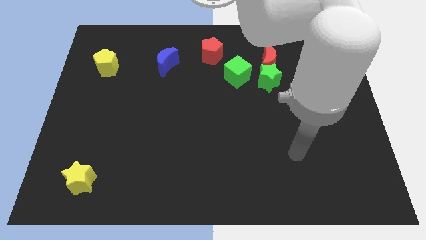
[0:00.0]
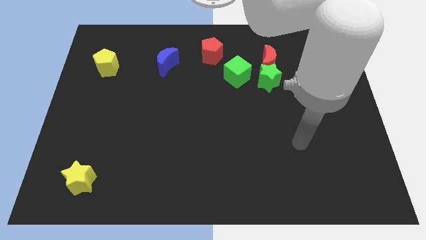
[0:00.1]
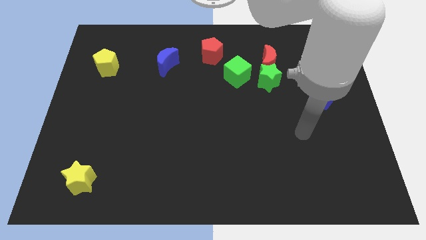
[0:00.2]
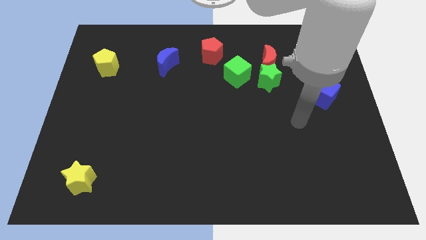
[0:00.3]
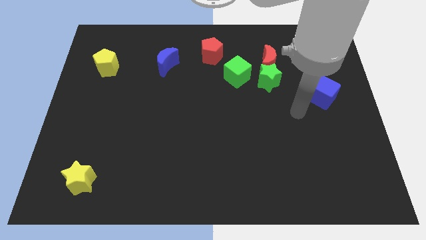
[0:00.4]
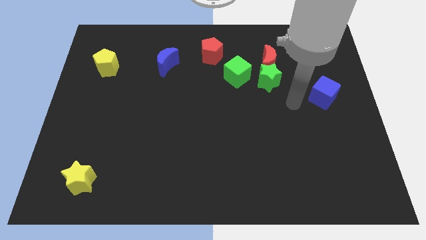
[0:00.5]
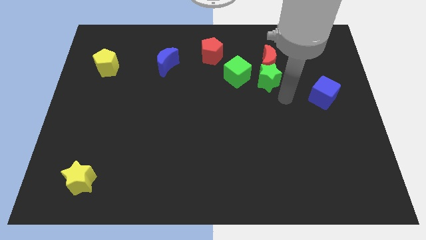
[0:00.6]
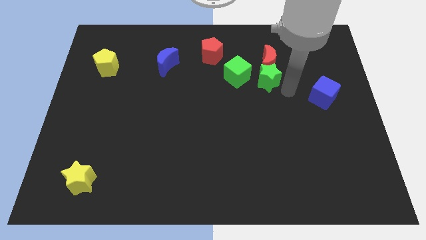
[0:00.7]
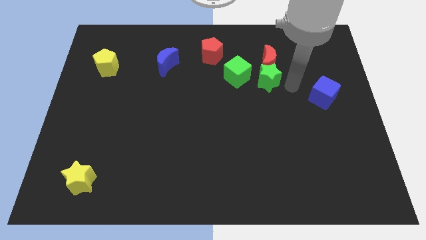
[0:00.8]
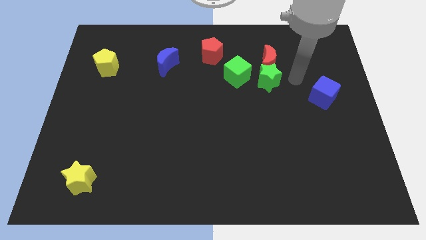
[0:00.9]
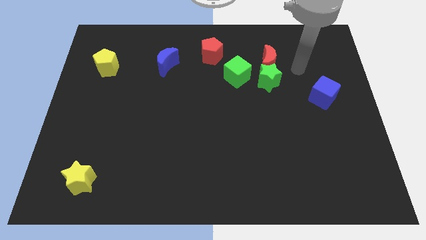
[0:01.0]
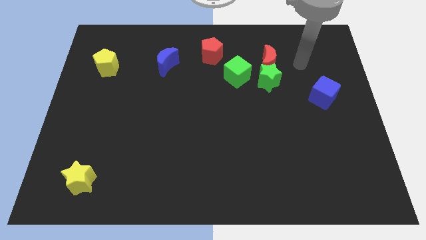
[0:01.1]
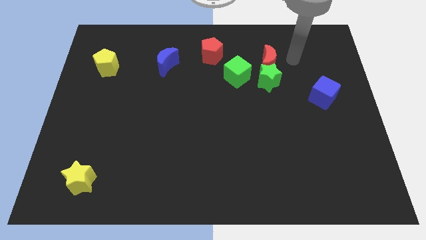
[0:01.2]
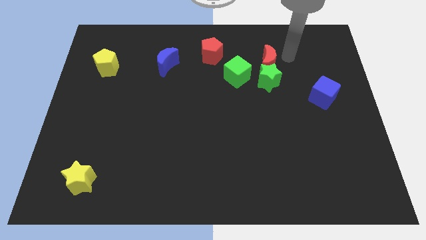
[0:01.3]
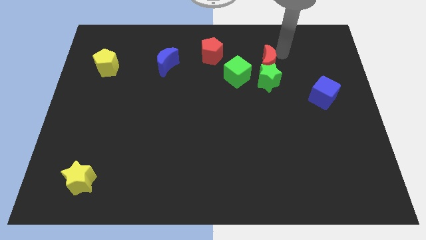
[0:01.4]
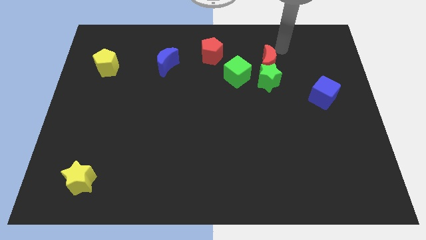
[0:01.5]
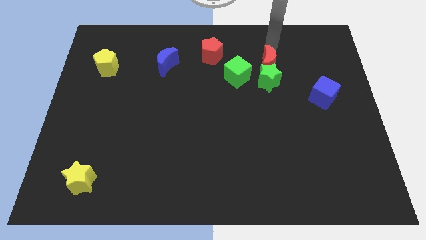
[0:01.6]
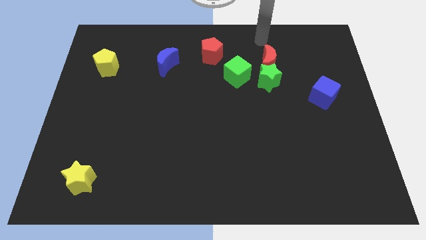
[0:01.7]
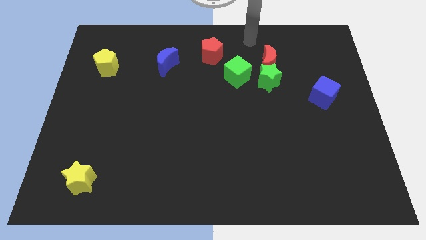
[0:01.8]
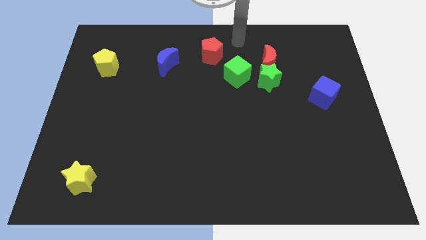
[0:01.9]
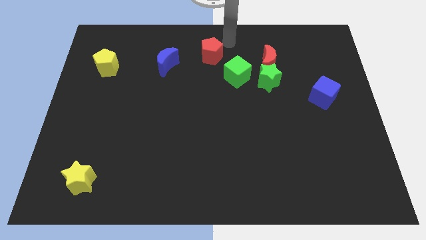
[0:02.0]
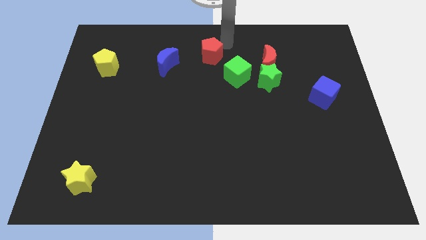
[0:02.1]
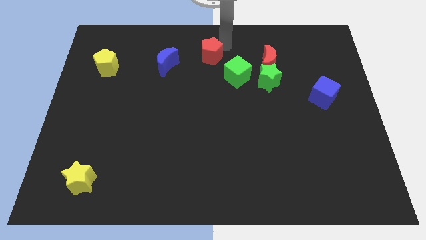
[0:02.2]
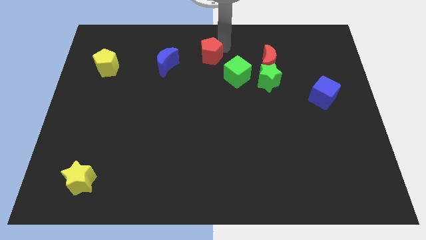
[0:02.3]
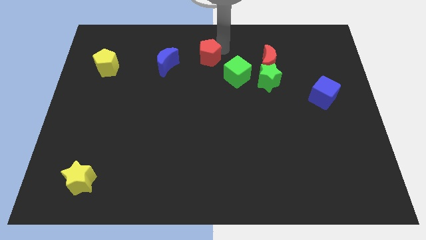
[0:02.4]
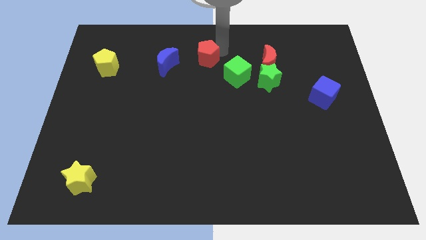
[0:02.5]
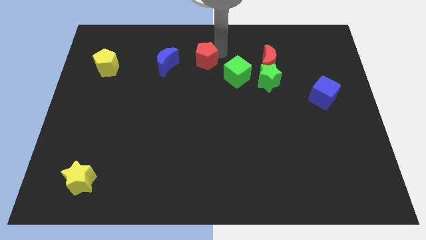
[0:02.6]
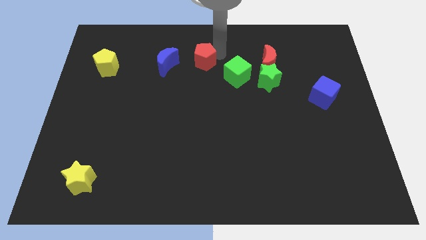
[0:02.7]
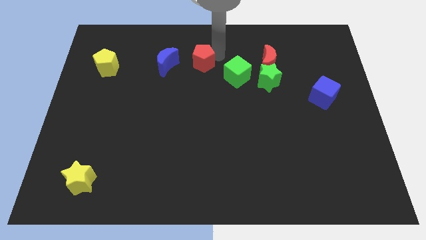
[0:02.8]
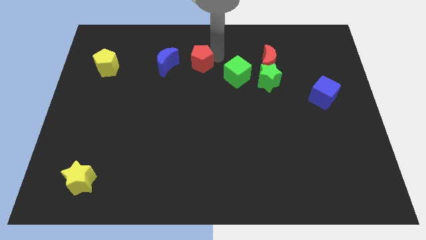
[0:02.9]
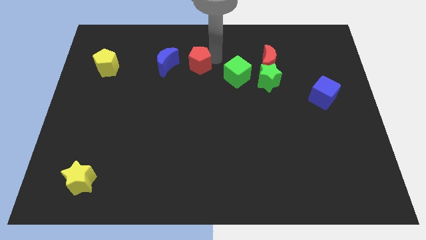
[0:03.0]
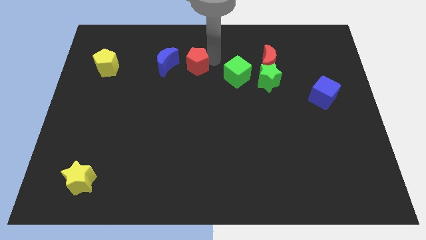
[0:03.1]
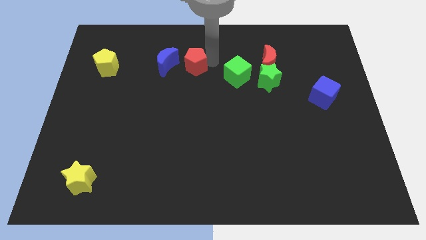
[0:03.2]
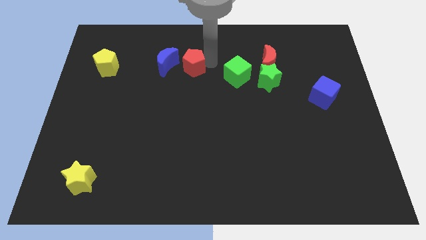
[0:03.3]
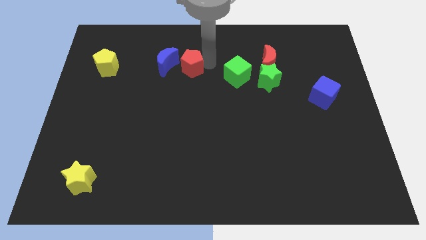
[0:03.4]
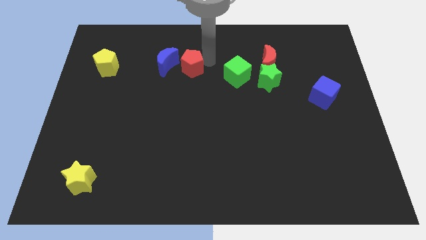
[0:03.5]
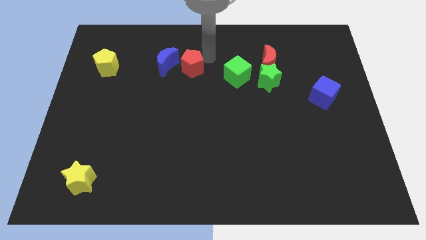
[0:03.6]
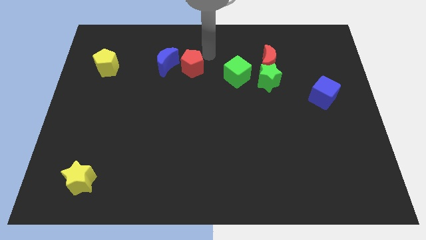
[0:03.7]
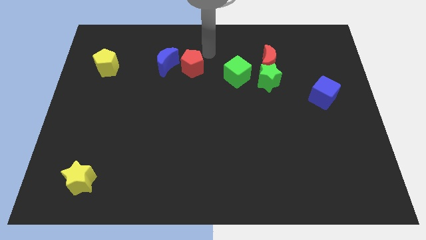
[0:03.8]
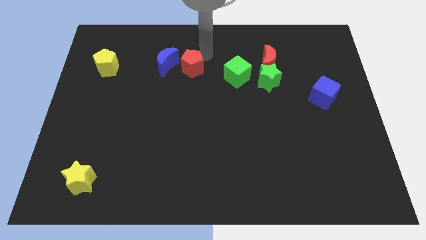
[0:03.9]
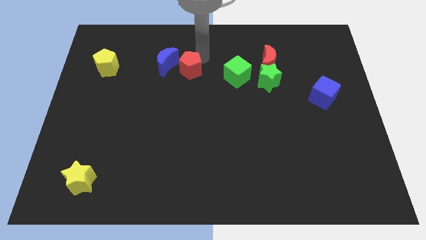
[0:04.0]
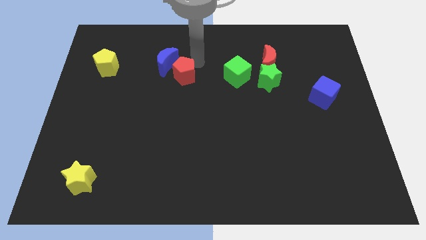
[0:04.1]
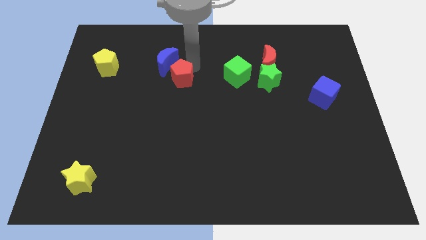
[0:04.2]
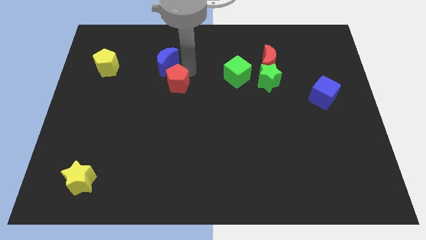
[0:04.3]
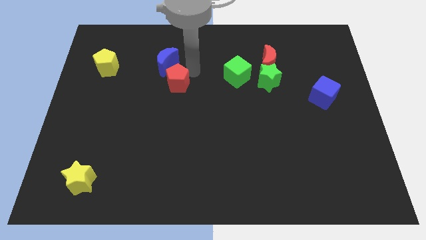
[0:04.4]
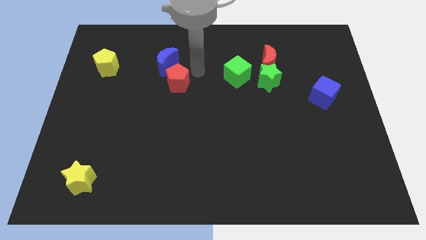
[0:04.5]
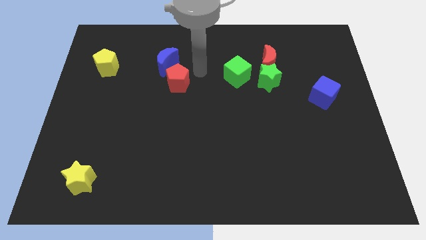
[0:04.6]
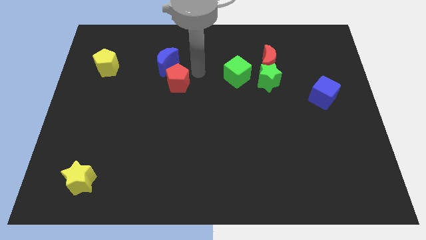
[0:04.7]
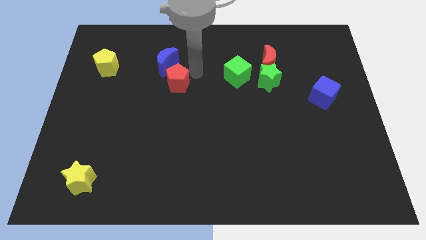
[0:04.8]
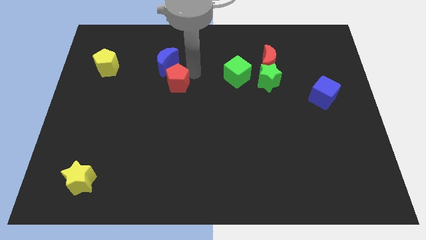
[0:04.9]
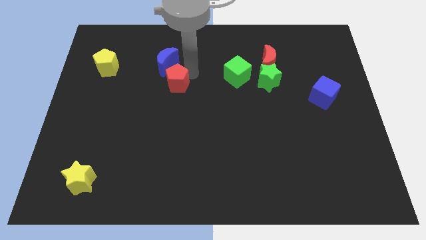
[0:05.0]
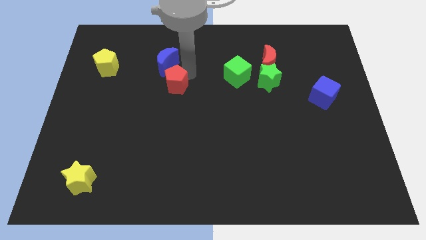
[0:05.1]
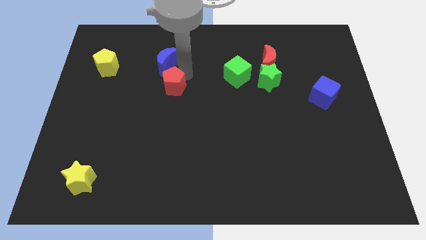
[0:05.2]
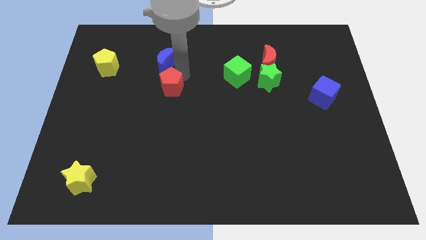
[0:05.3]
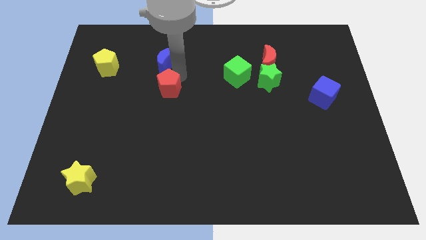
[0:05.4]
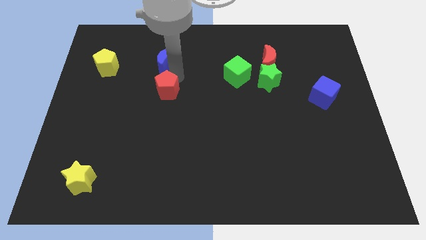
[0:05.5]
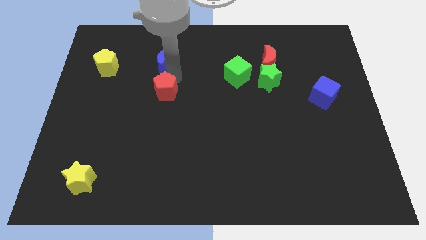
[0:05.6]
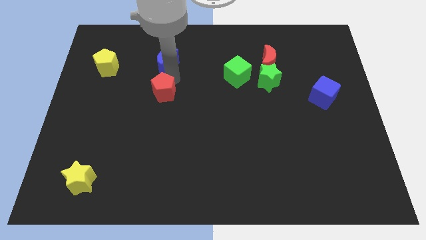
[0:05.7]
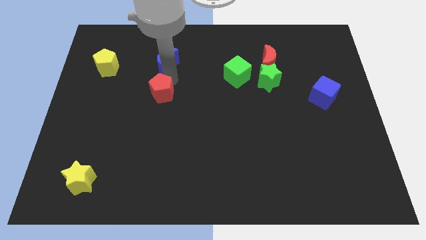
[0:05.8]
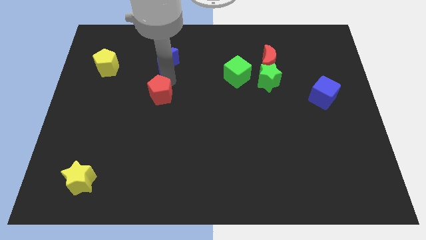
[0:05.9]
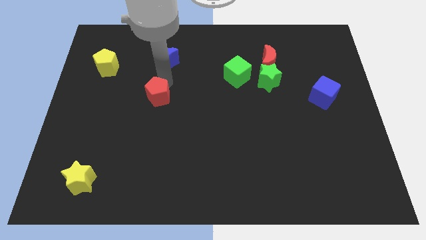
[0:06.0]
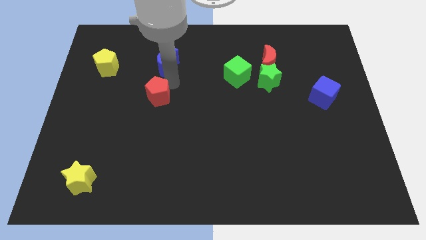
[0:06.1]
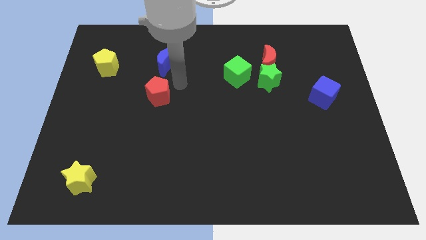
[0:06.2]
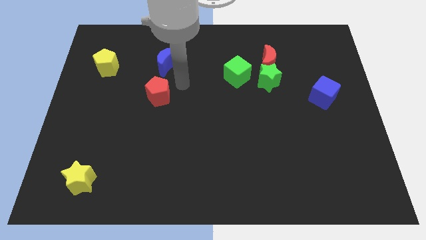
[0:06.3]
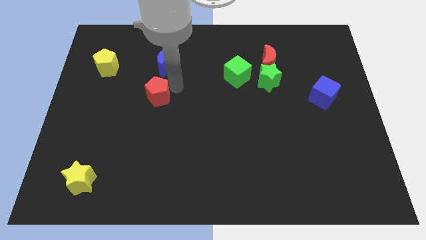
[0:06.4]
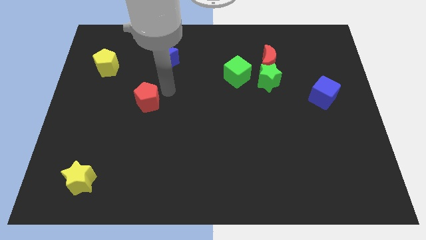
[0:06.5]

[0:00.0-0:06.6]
push the red pentagon down and left

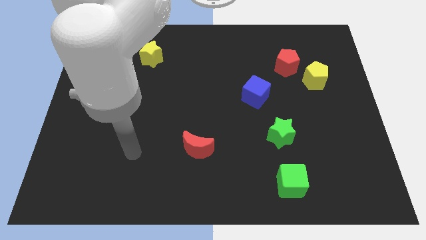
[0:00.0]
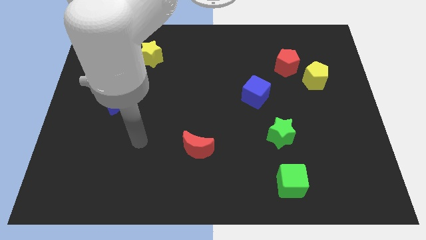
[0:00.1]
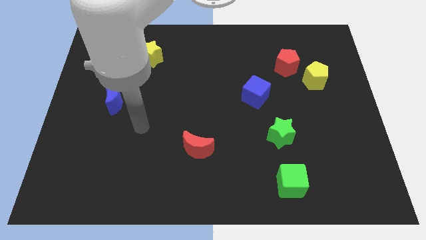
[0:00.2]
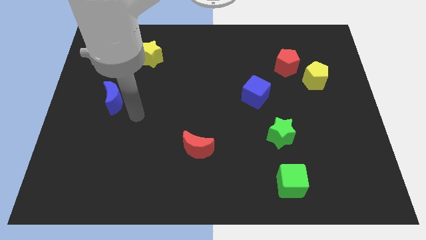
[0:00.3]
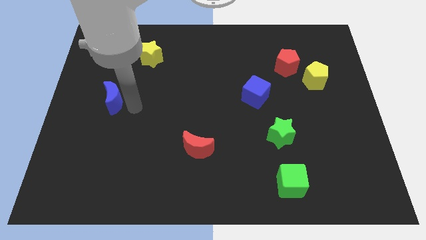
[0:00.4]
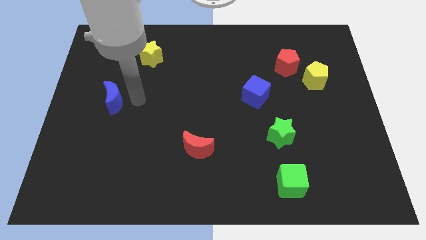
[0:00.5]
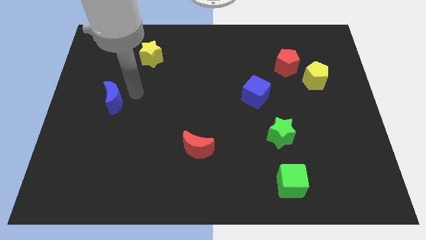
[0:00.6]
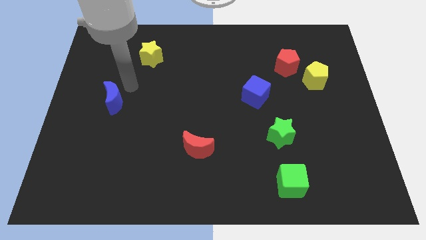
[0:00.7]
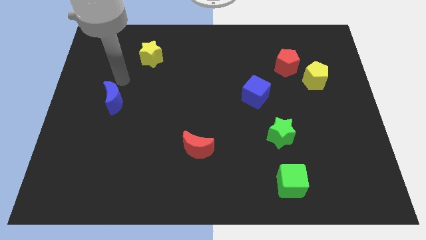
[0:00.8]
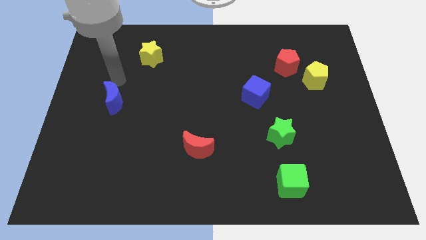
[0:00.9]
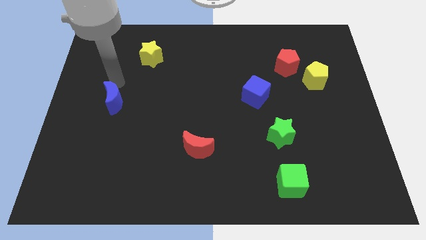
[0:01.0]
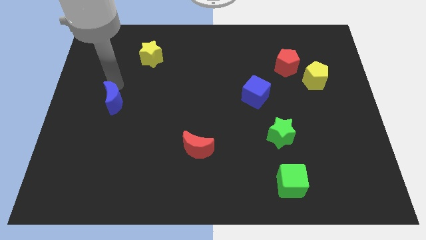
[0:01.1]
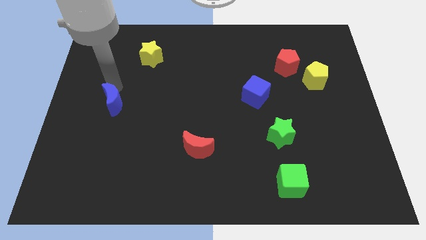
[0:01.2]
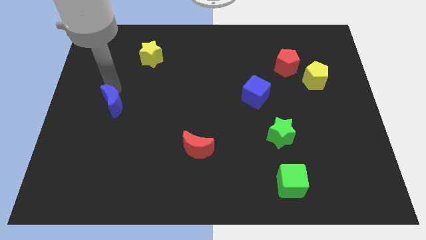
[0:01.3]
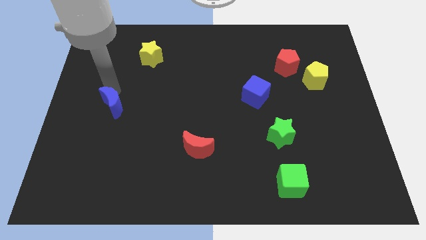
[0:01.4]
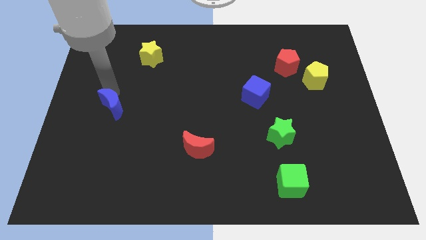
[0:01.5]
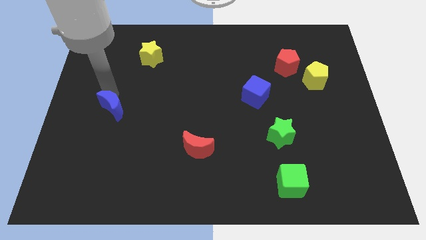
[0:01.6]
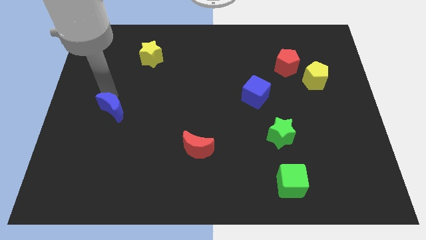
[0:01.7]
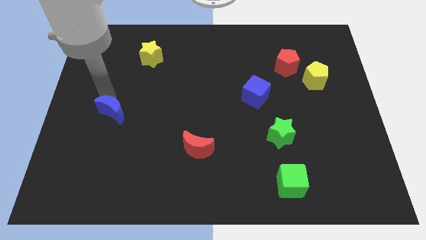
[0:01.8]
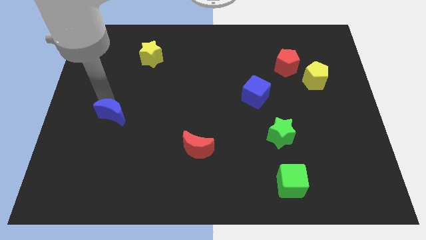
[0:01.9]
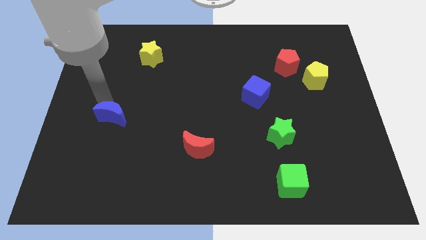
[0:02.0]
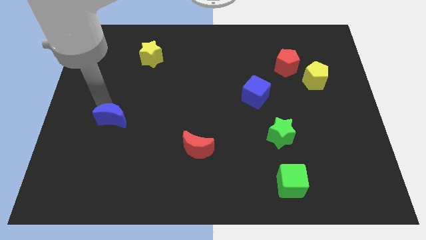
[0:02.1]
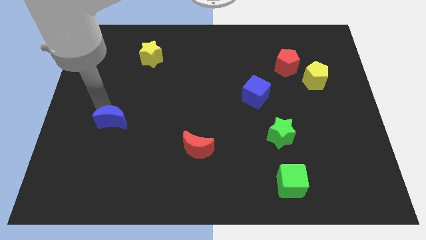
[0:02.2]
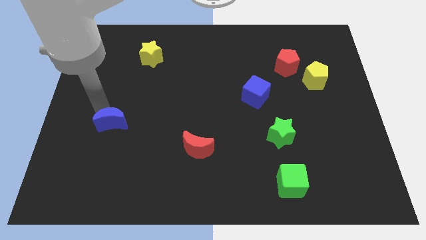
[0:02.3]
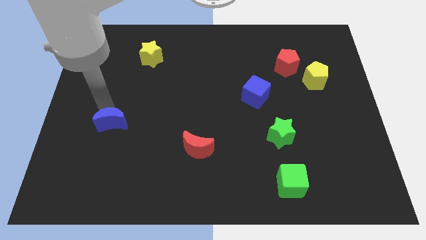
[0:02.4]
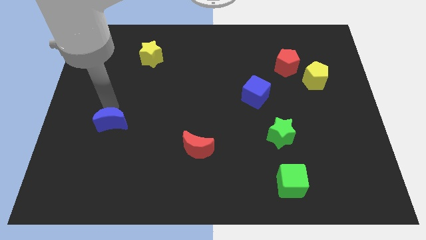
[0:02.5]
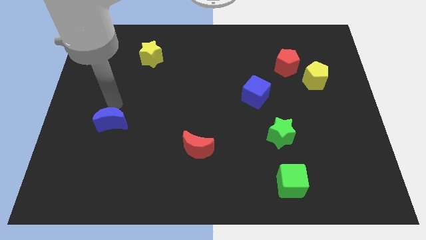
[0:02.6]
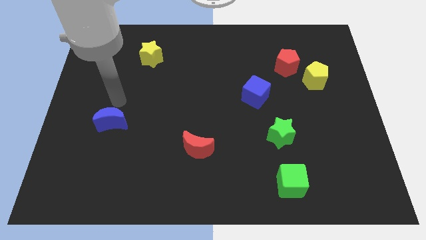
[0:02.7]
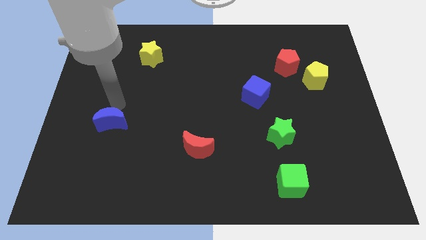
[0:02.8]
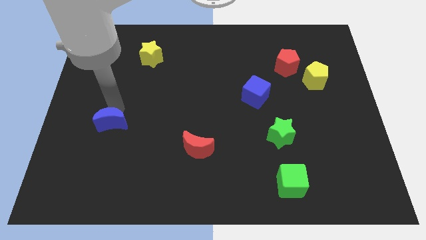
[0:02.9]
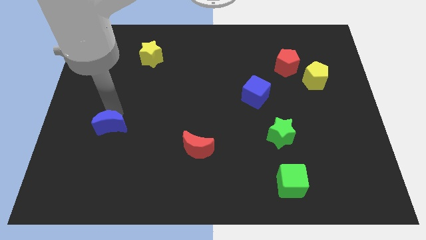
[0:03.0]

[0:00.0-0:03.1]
push the blue moon downwards slightly
